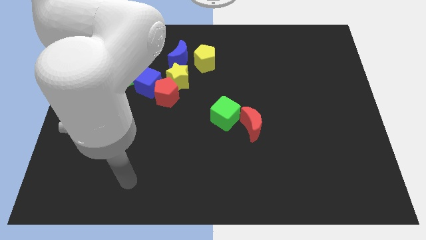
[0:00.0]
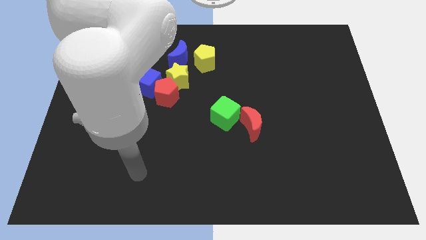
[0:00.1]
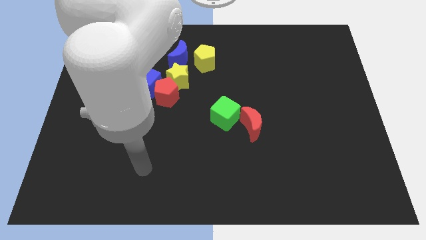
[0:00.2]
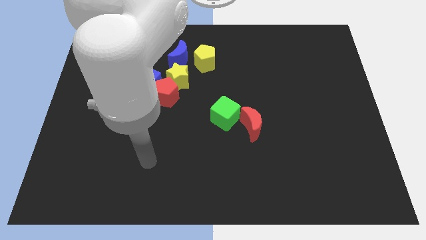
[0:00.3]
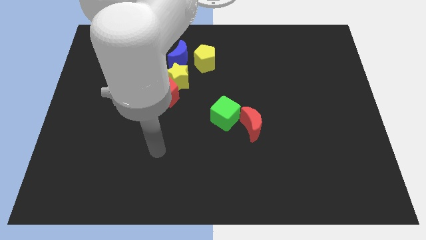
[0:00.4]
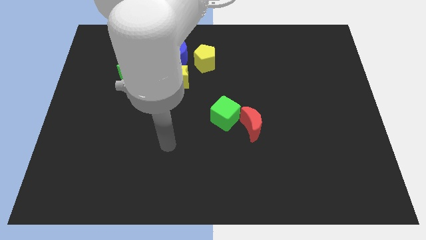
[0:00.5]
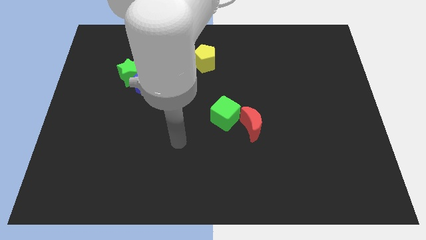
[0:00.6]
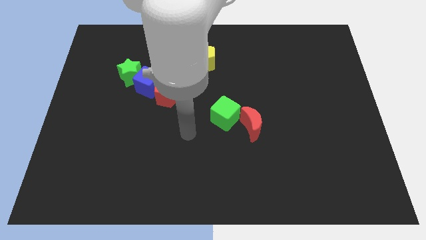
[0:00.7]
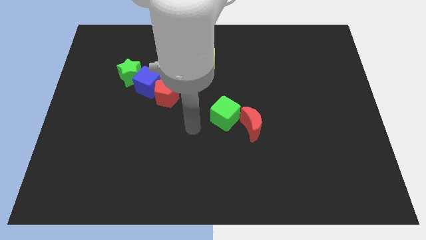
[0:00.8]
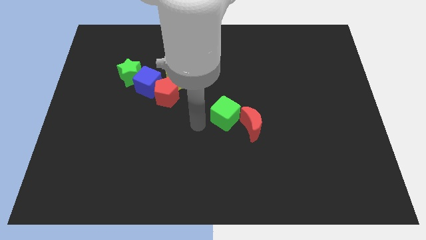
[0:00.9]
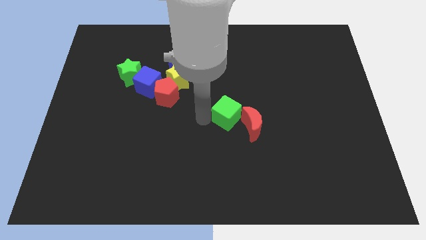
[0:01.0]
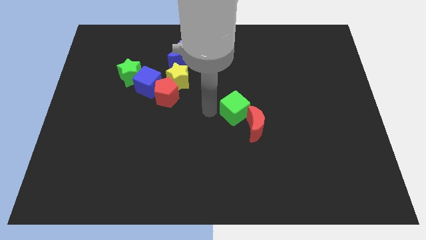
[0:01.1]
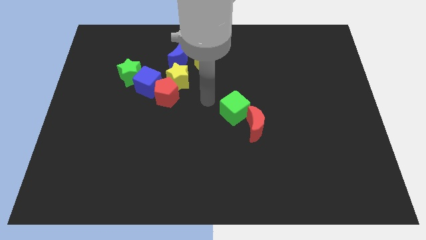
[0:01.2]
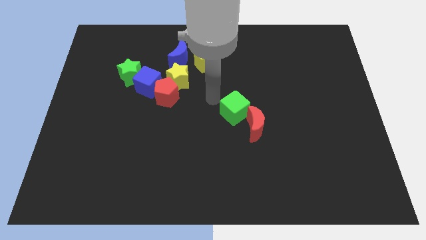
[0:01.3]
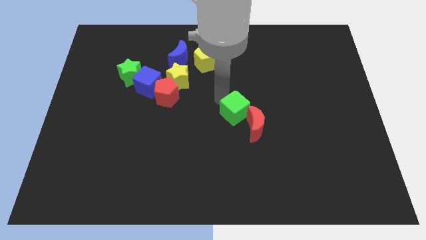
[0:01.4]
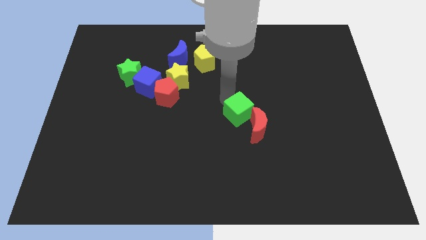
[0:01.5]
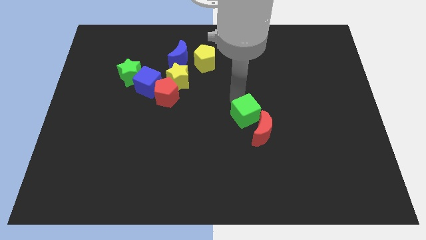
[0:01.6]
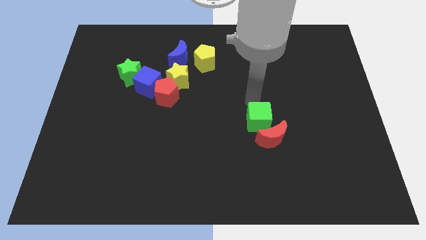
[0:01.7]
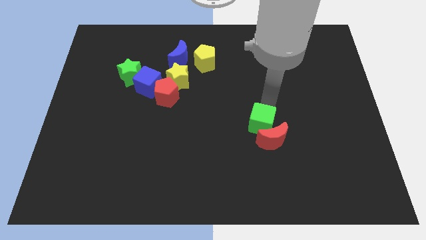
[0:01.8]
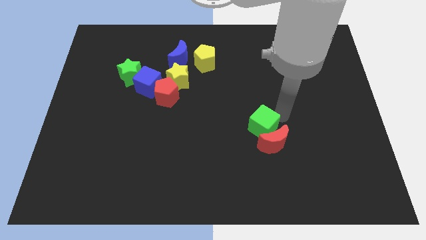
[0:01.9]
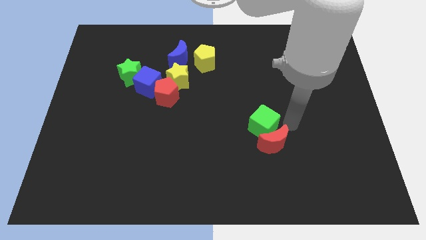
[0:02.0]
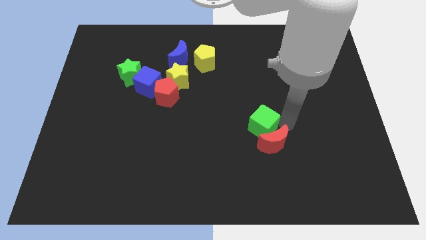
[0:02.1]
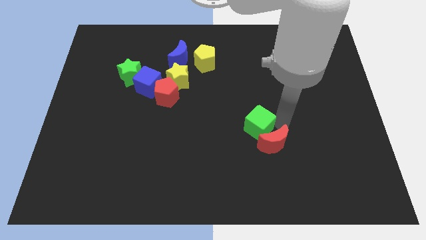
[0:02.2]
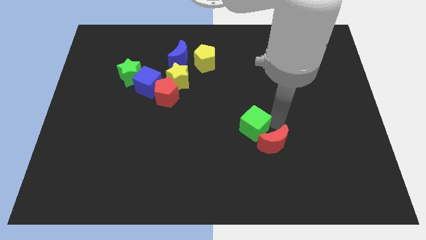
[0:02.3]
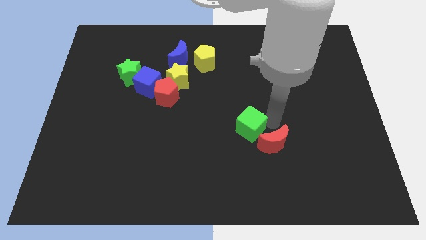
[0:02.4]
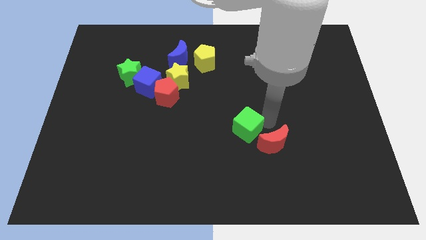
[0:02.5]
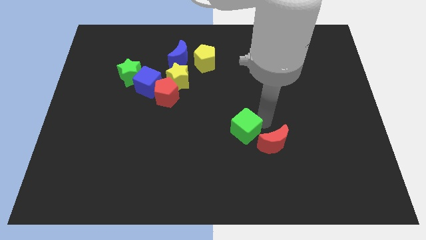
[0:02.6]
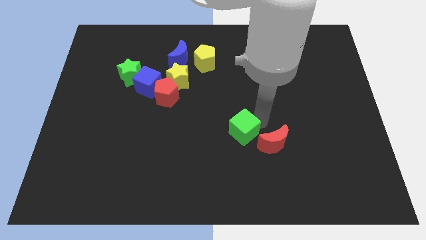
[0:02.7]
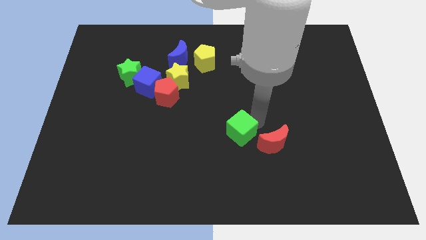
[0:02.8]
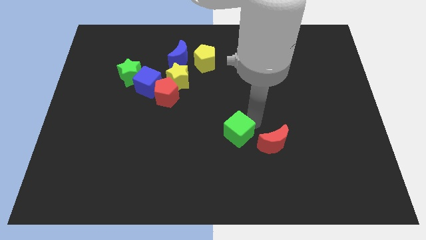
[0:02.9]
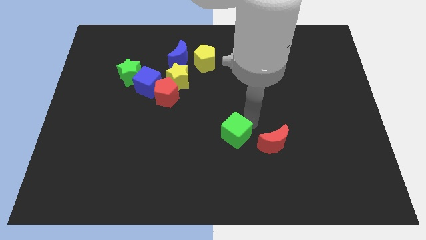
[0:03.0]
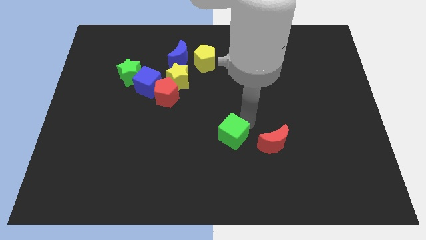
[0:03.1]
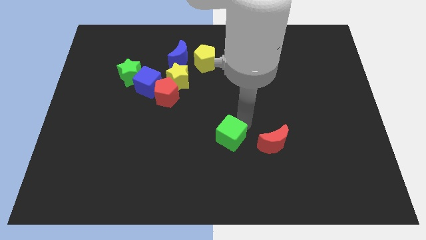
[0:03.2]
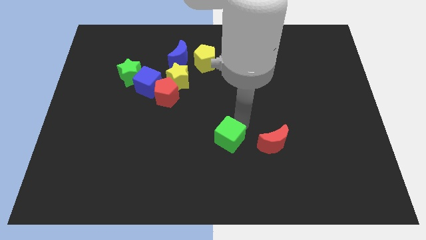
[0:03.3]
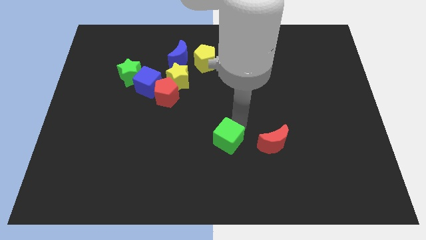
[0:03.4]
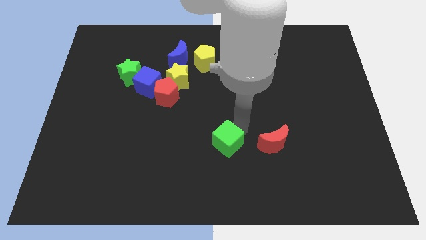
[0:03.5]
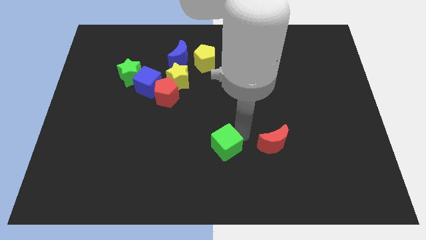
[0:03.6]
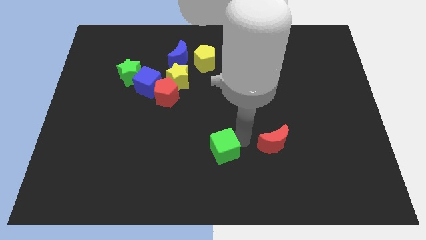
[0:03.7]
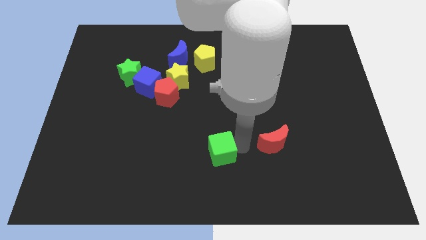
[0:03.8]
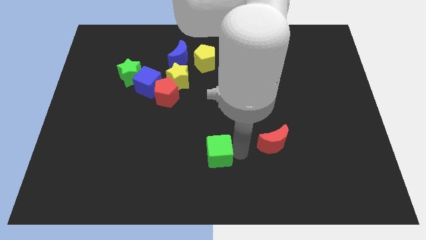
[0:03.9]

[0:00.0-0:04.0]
push the green cube somewhat downwards and left

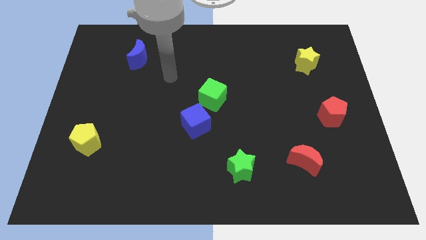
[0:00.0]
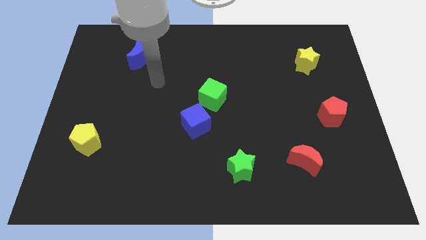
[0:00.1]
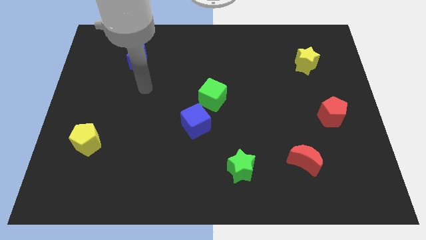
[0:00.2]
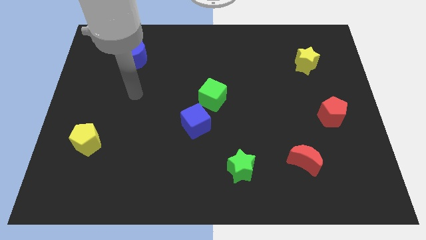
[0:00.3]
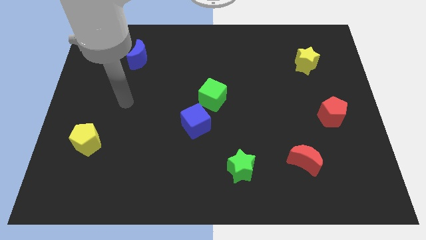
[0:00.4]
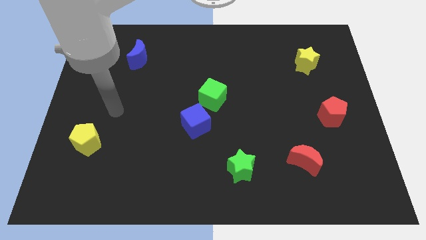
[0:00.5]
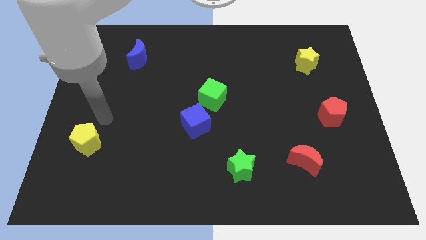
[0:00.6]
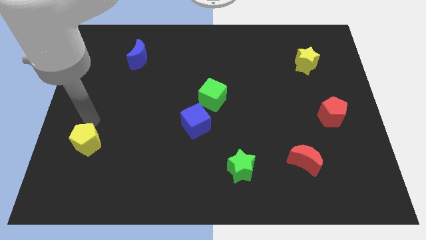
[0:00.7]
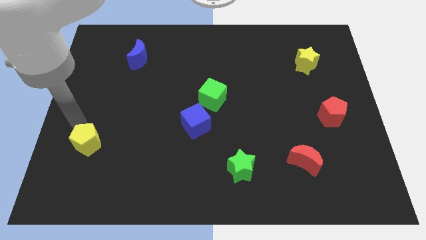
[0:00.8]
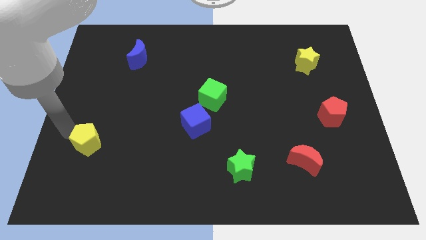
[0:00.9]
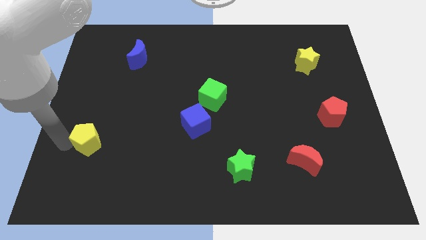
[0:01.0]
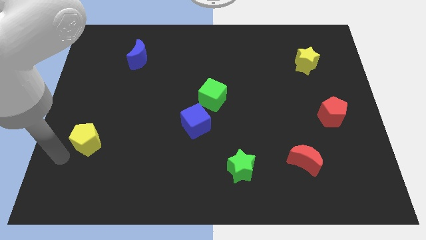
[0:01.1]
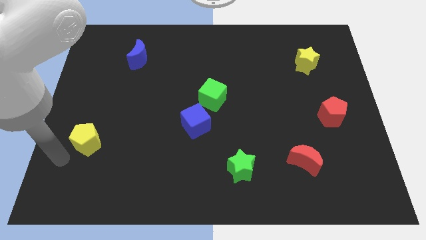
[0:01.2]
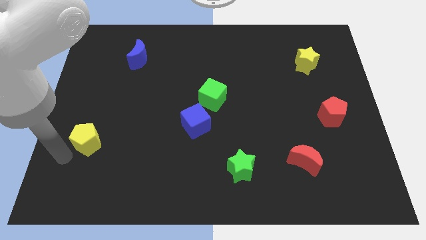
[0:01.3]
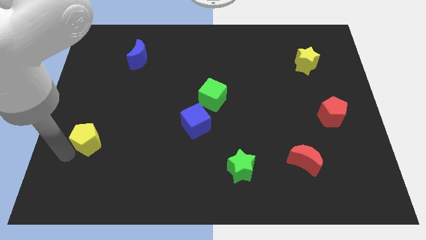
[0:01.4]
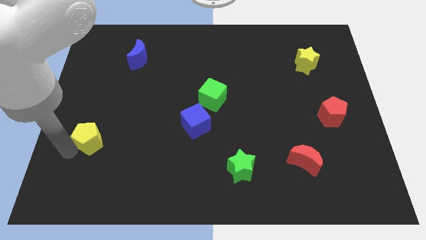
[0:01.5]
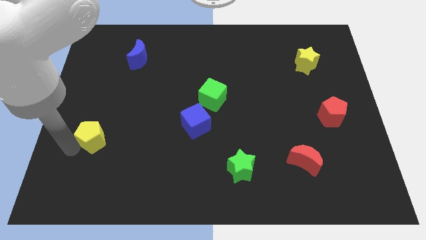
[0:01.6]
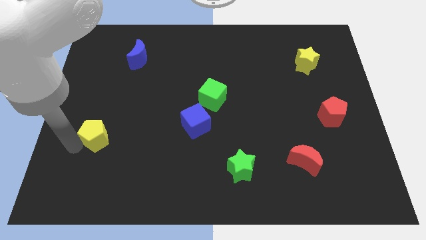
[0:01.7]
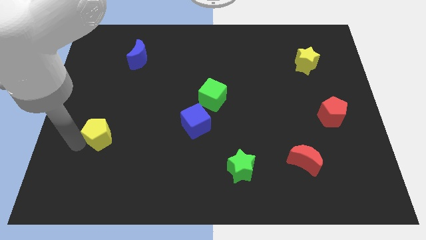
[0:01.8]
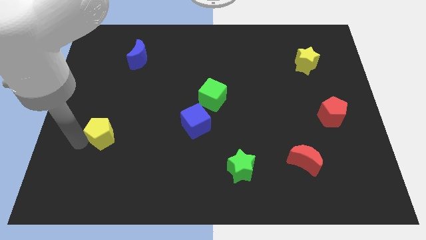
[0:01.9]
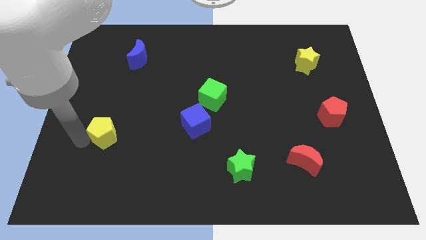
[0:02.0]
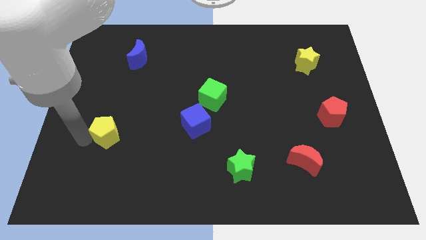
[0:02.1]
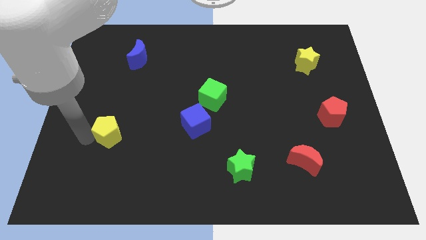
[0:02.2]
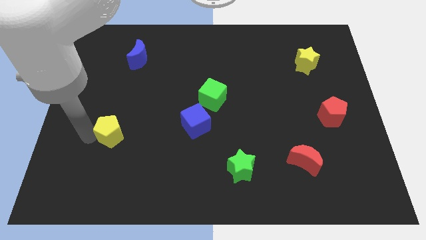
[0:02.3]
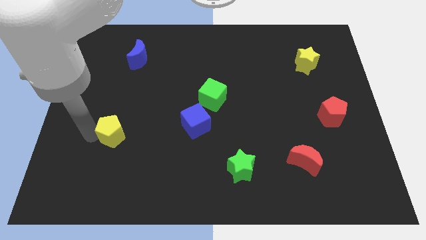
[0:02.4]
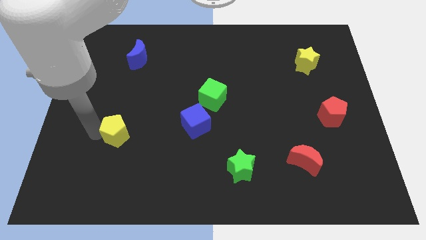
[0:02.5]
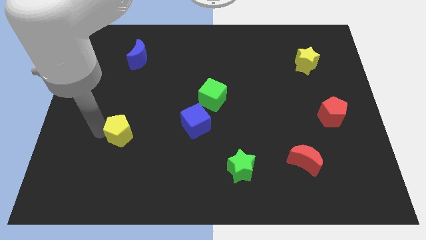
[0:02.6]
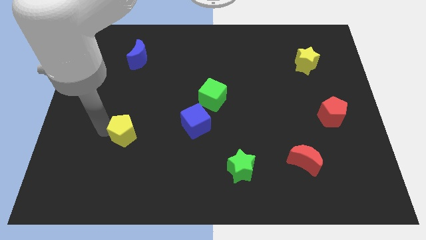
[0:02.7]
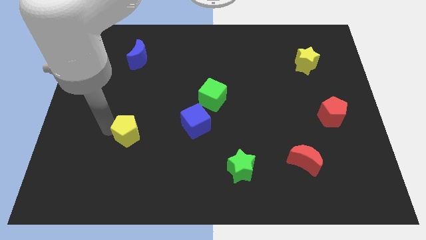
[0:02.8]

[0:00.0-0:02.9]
slightly move the yellow pentagon diagonally up and right

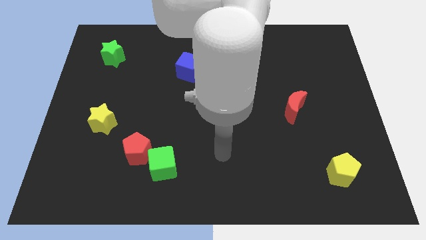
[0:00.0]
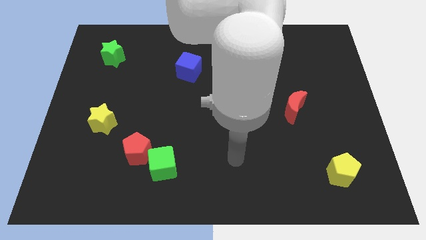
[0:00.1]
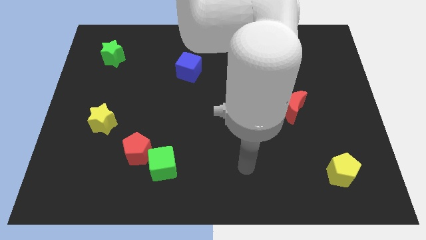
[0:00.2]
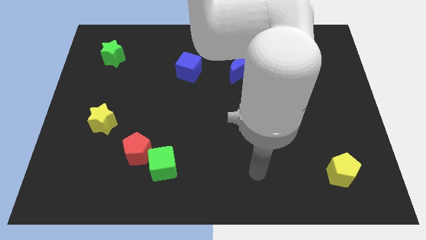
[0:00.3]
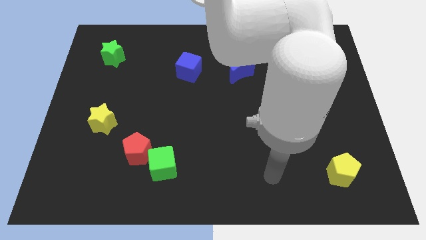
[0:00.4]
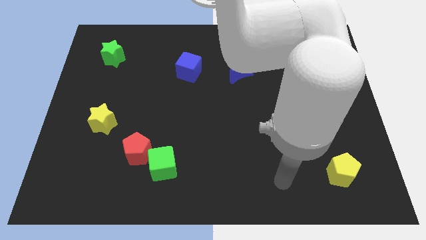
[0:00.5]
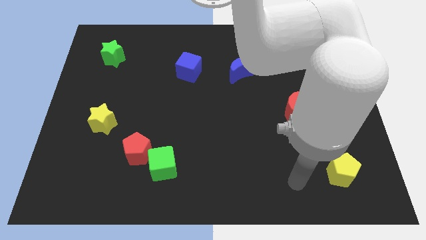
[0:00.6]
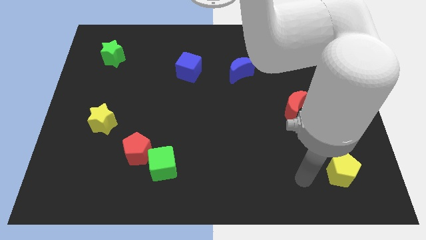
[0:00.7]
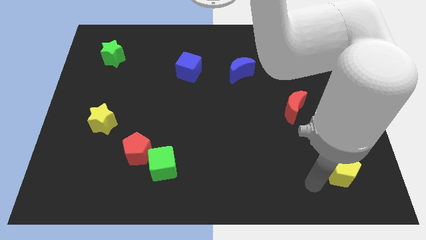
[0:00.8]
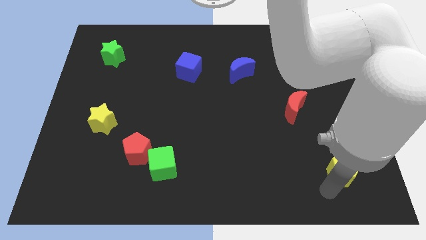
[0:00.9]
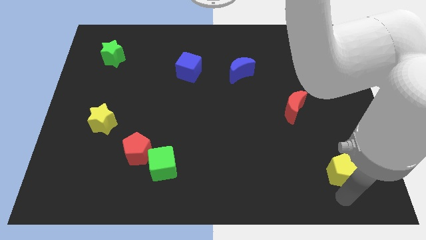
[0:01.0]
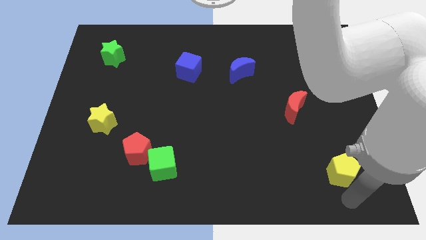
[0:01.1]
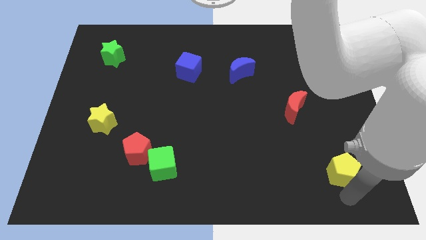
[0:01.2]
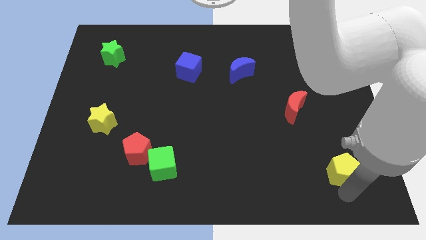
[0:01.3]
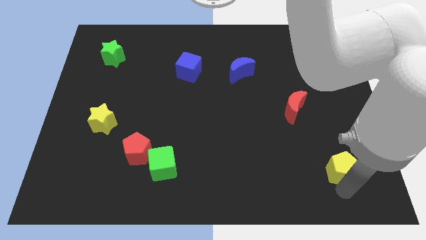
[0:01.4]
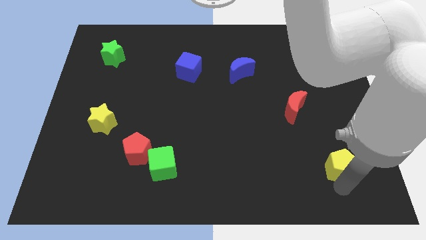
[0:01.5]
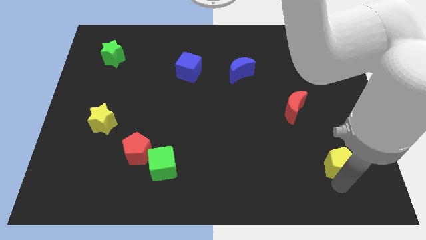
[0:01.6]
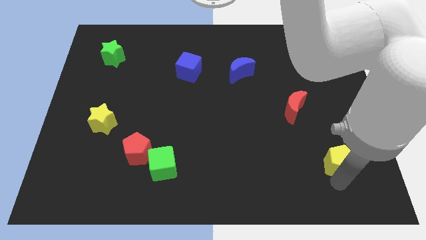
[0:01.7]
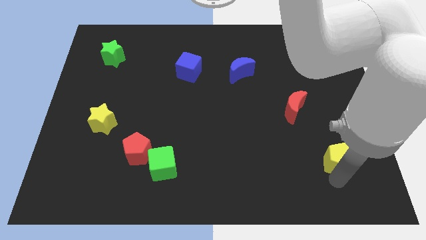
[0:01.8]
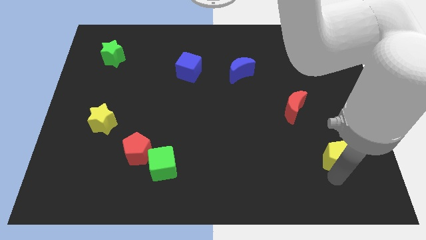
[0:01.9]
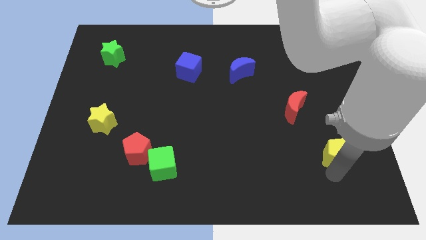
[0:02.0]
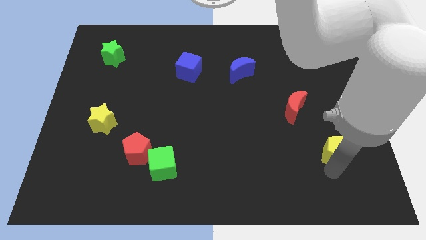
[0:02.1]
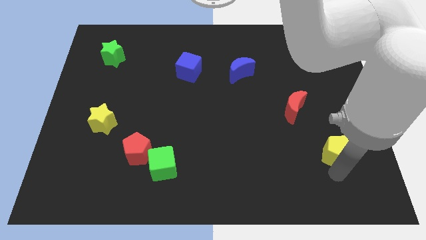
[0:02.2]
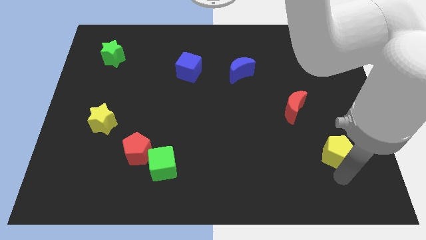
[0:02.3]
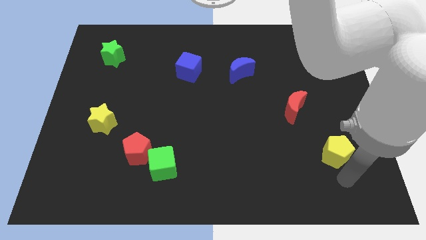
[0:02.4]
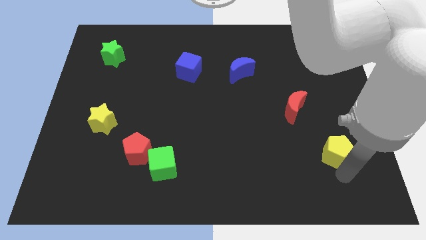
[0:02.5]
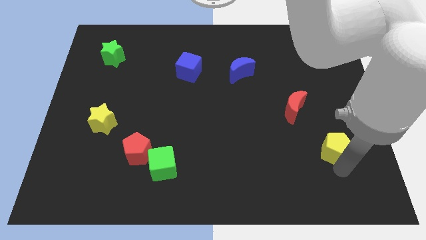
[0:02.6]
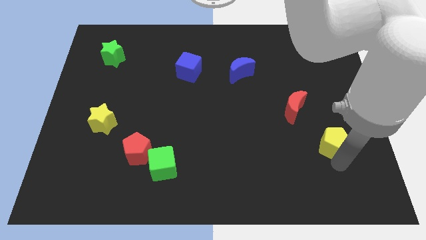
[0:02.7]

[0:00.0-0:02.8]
slide the yellow pentagon somewhat upwards
